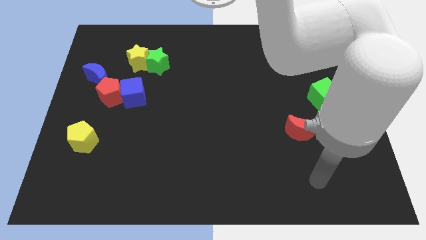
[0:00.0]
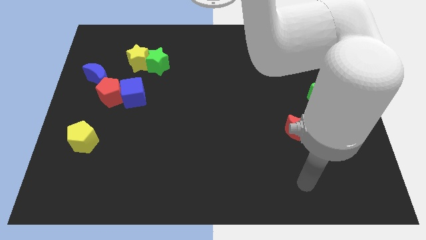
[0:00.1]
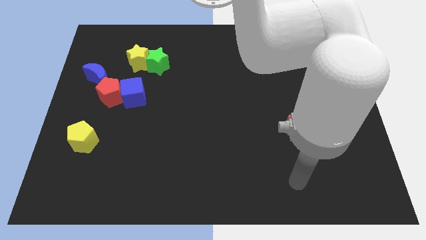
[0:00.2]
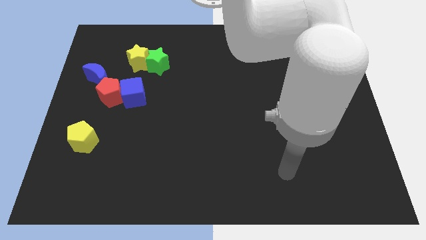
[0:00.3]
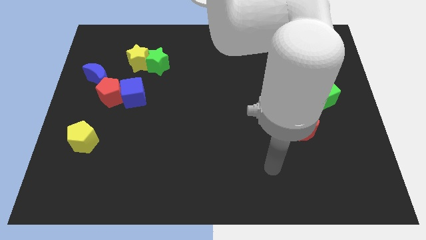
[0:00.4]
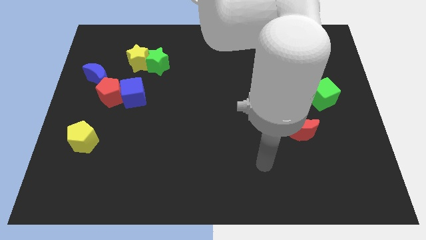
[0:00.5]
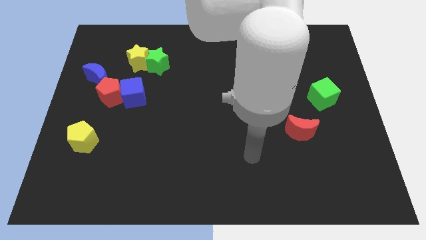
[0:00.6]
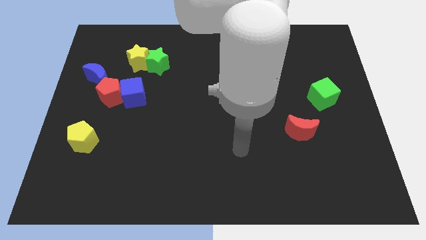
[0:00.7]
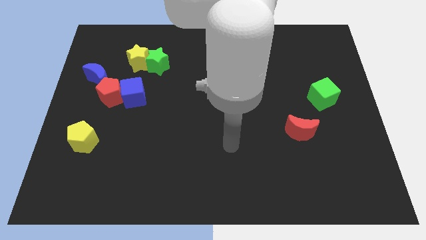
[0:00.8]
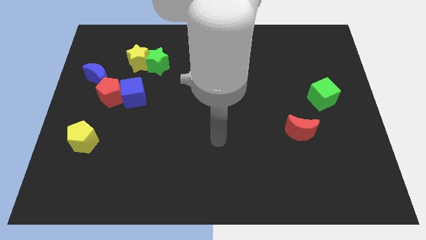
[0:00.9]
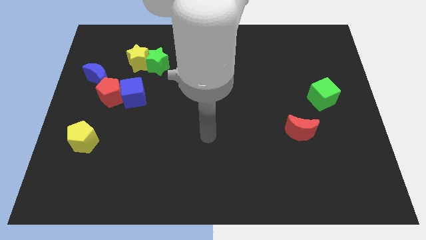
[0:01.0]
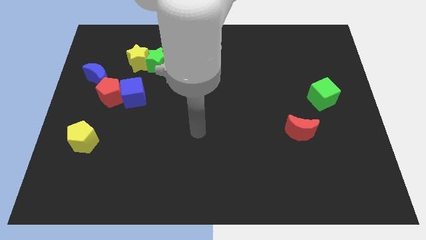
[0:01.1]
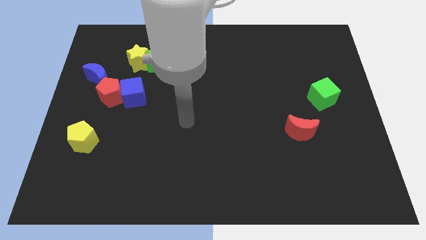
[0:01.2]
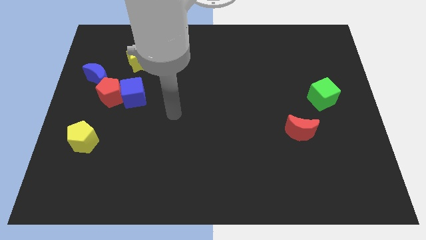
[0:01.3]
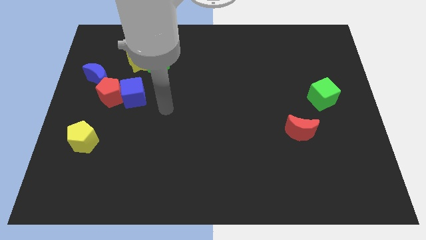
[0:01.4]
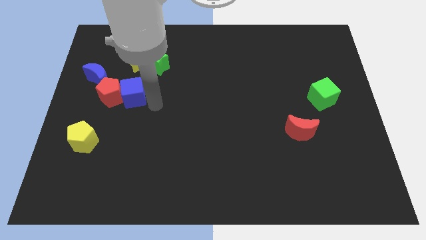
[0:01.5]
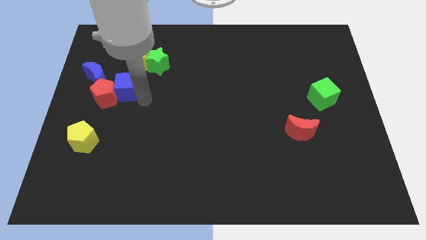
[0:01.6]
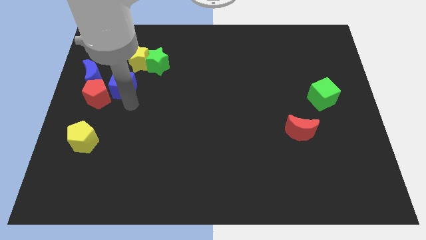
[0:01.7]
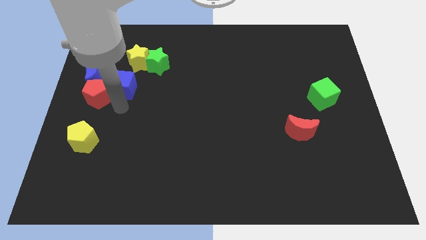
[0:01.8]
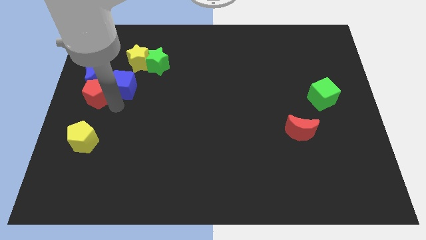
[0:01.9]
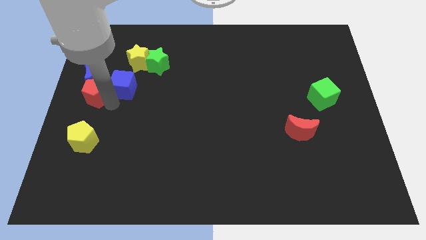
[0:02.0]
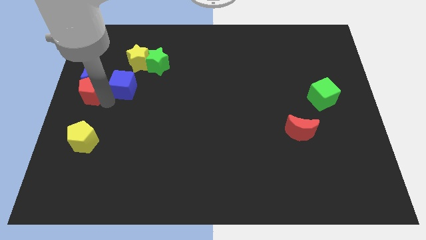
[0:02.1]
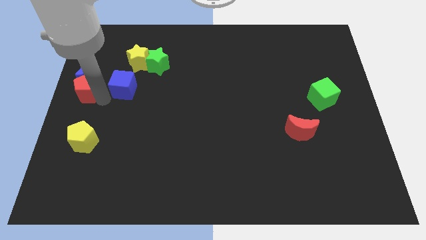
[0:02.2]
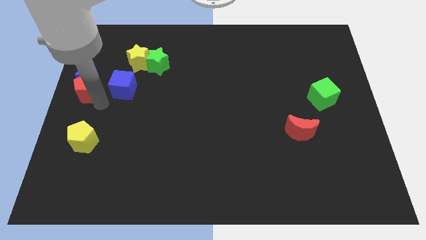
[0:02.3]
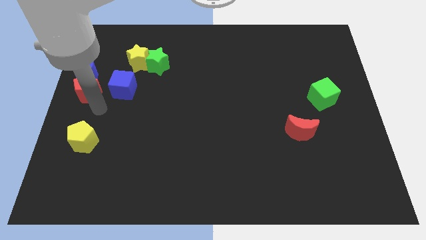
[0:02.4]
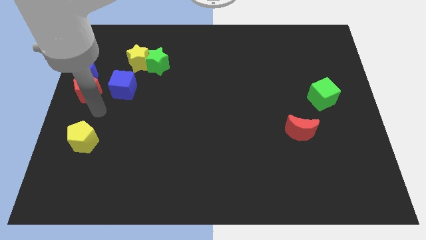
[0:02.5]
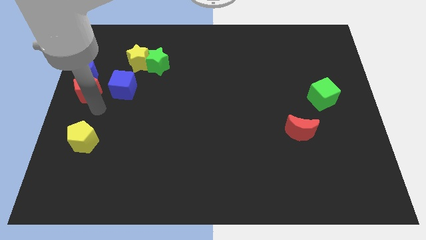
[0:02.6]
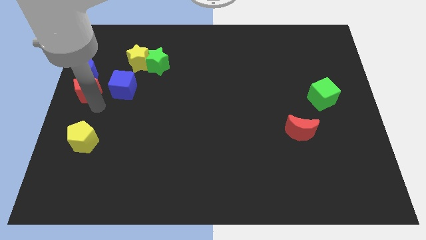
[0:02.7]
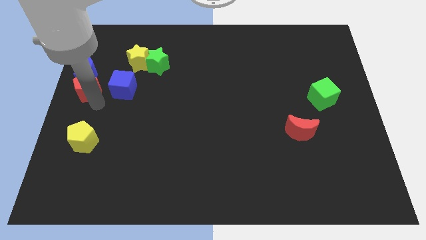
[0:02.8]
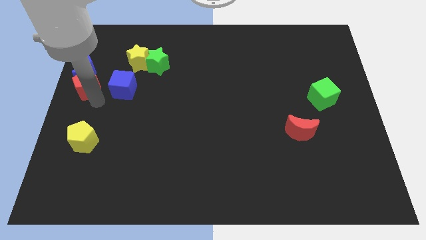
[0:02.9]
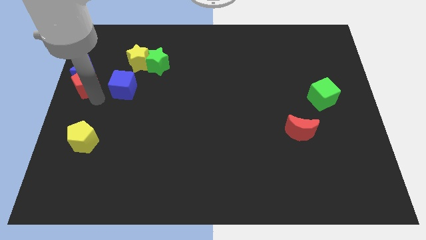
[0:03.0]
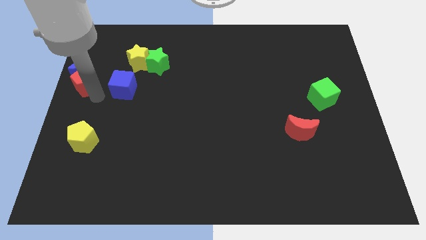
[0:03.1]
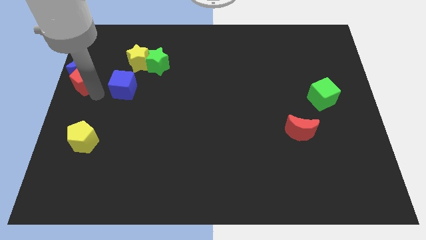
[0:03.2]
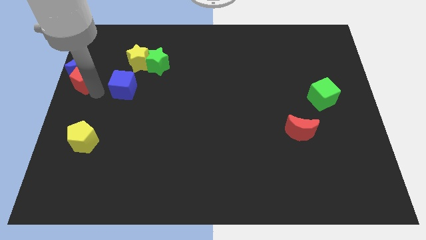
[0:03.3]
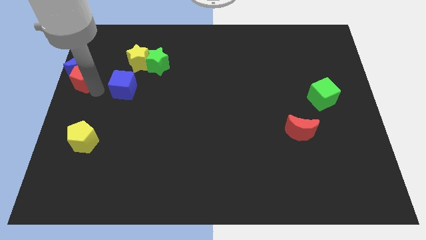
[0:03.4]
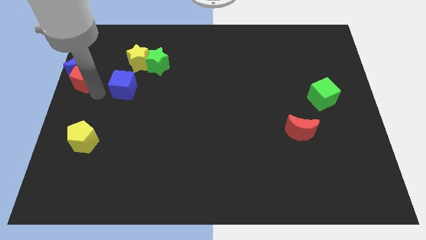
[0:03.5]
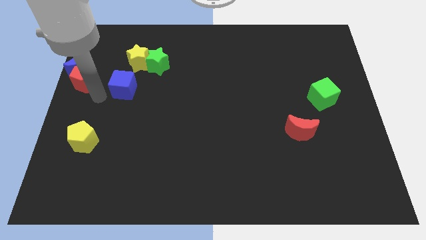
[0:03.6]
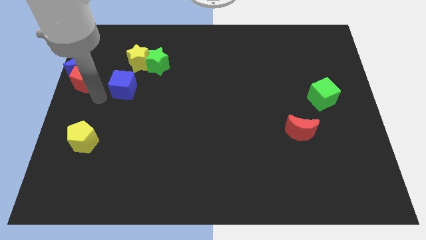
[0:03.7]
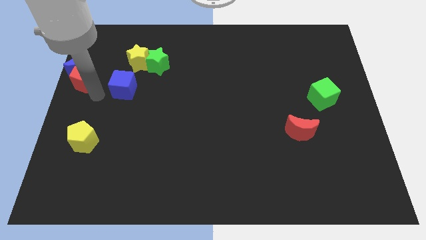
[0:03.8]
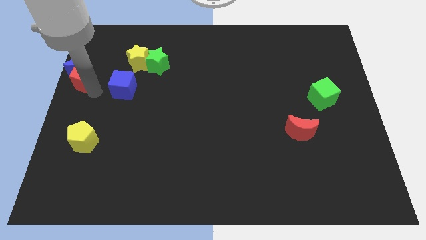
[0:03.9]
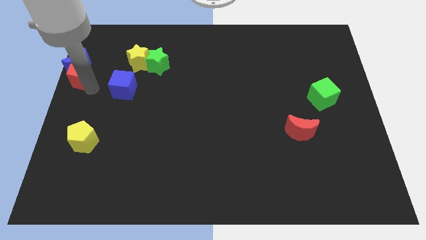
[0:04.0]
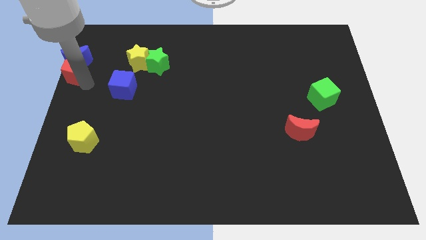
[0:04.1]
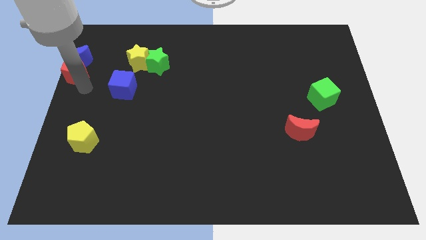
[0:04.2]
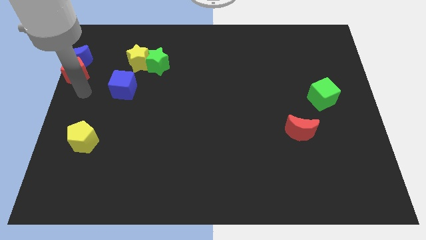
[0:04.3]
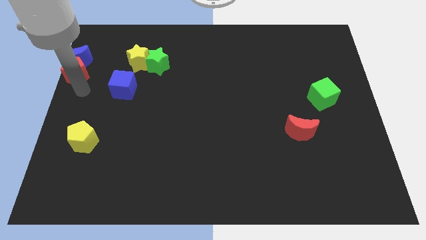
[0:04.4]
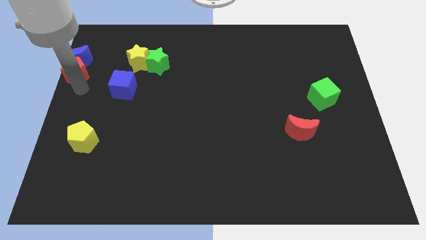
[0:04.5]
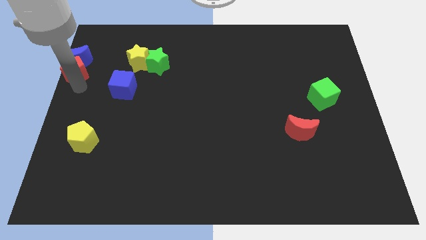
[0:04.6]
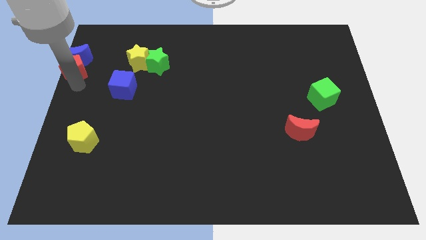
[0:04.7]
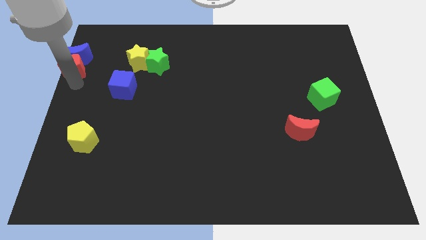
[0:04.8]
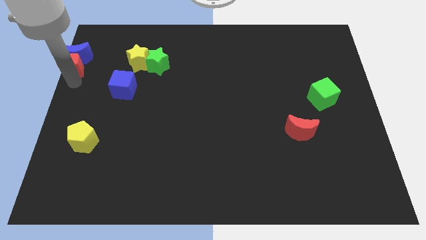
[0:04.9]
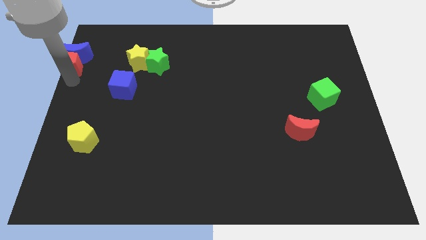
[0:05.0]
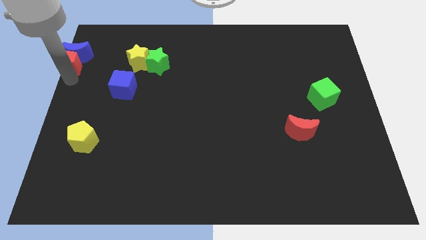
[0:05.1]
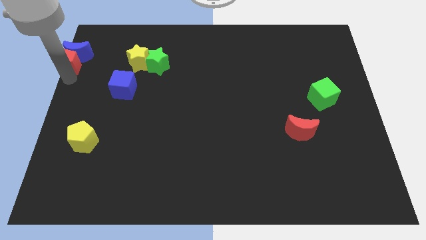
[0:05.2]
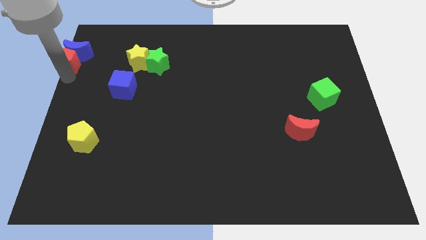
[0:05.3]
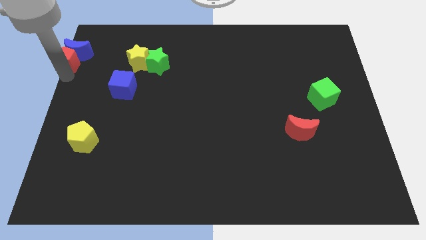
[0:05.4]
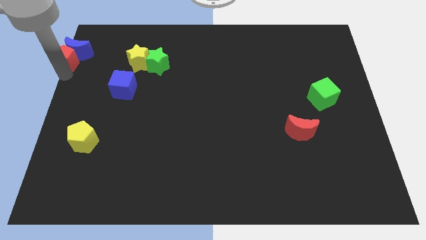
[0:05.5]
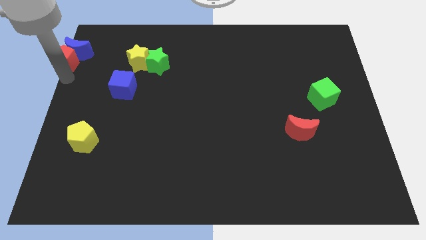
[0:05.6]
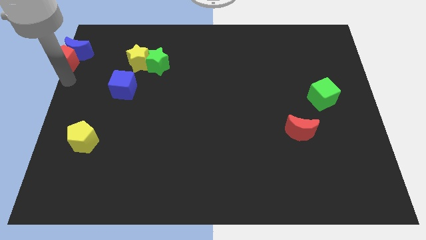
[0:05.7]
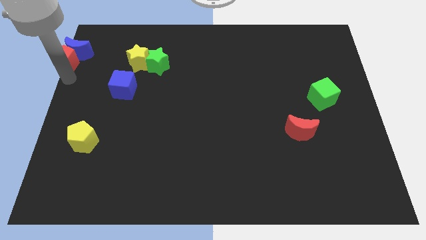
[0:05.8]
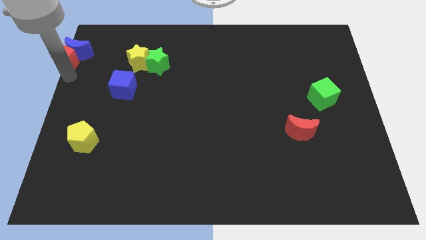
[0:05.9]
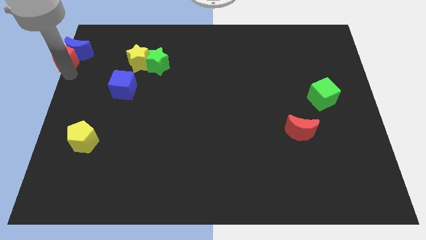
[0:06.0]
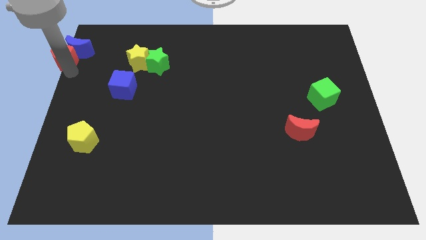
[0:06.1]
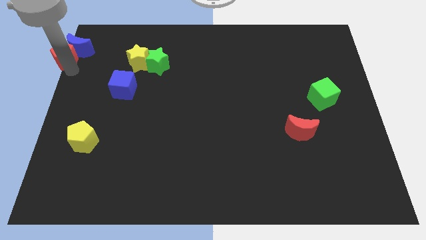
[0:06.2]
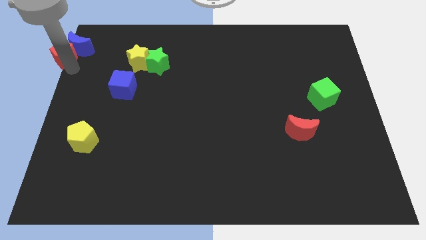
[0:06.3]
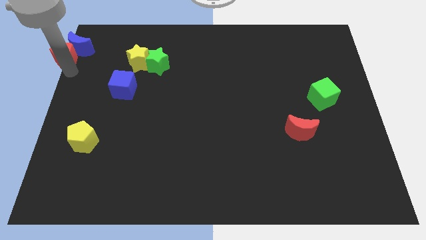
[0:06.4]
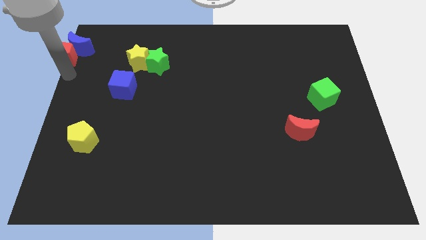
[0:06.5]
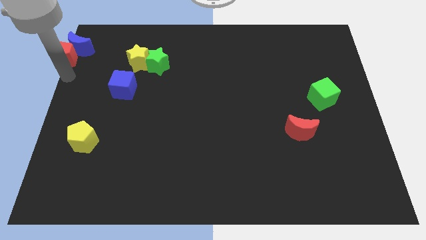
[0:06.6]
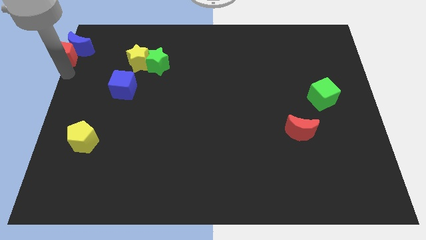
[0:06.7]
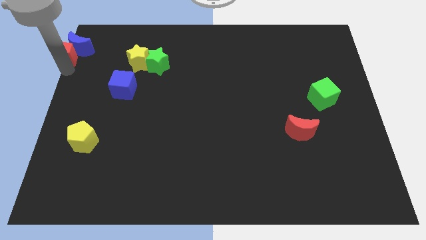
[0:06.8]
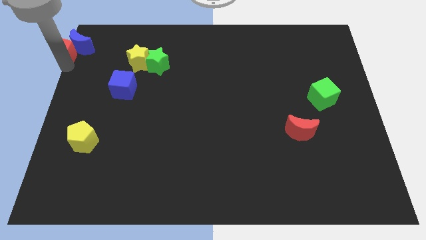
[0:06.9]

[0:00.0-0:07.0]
slide the red pentagon to the top left corner
